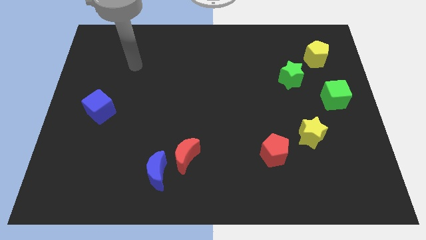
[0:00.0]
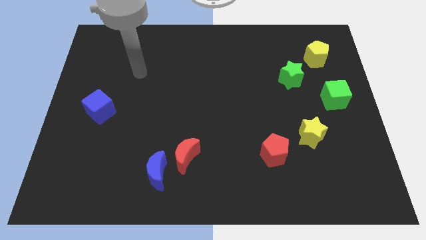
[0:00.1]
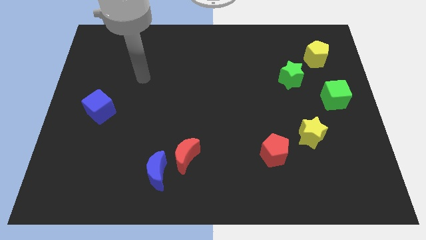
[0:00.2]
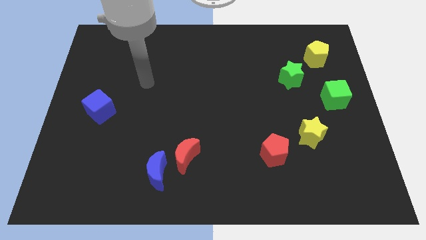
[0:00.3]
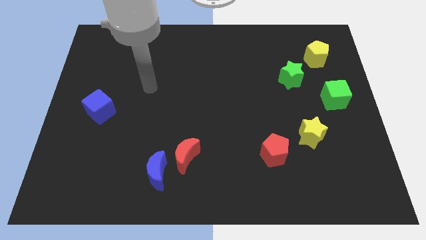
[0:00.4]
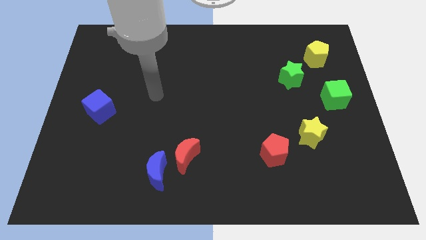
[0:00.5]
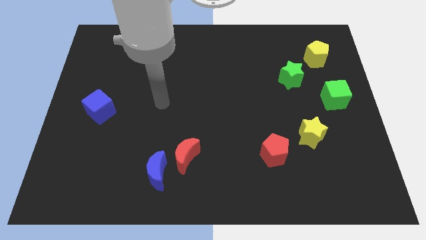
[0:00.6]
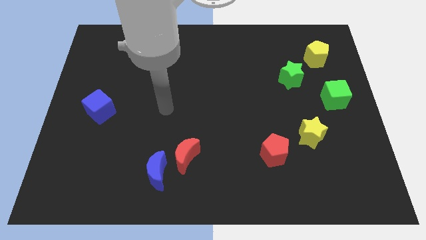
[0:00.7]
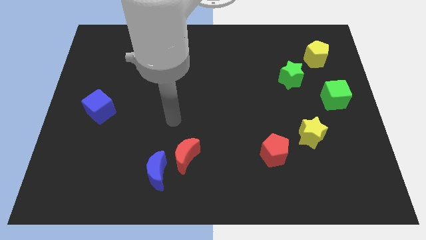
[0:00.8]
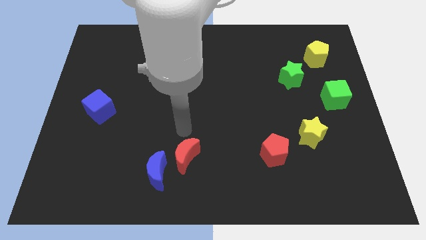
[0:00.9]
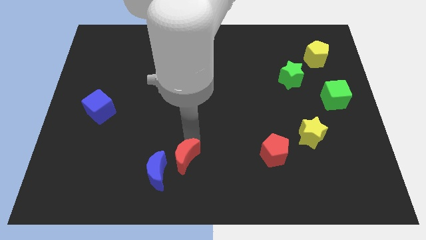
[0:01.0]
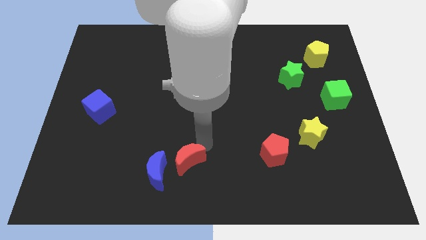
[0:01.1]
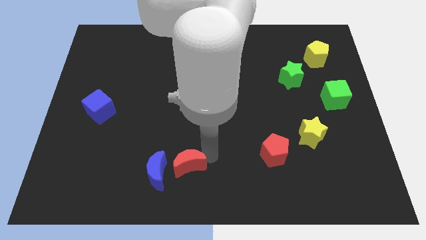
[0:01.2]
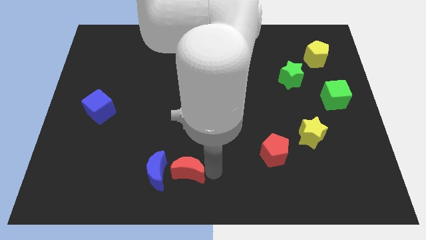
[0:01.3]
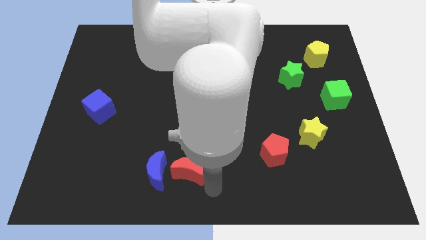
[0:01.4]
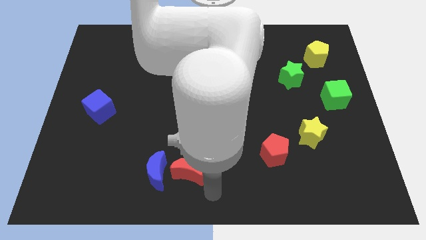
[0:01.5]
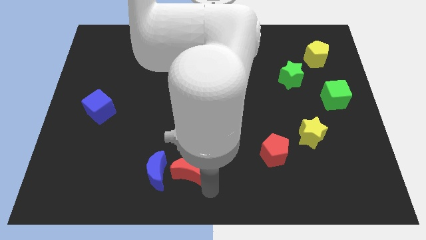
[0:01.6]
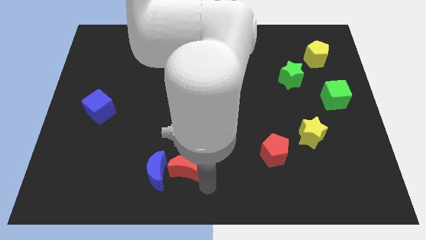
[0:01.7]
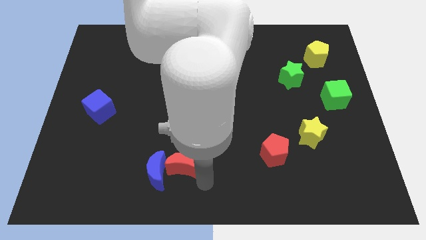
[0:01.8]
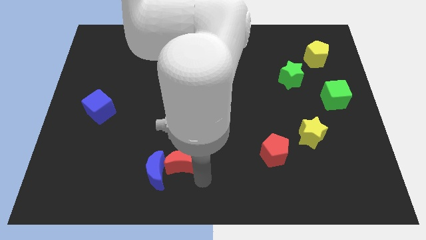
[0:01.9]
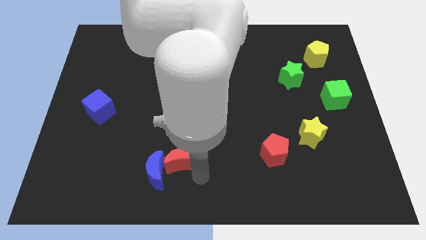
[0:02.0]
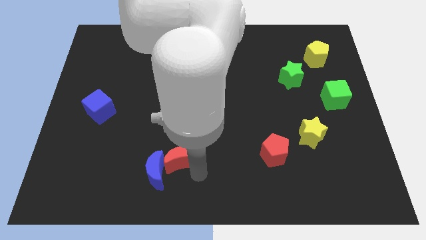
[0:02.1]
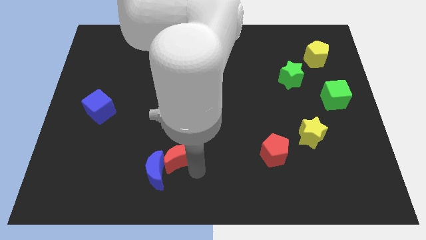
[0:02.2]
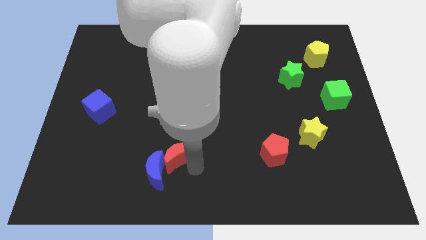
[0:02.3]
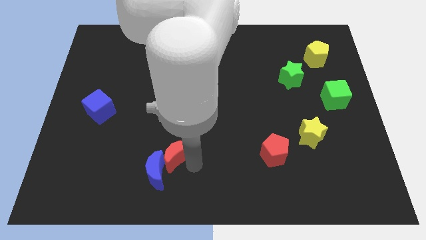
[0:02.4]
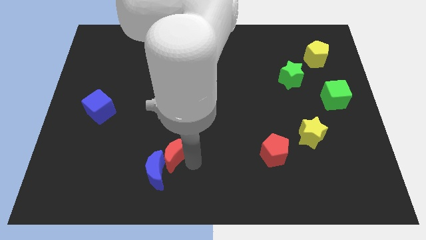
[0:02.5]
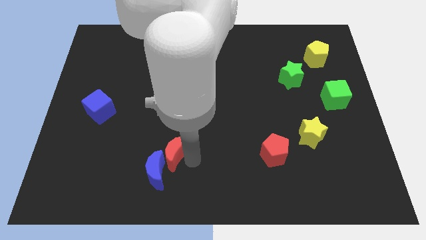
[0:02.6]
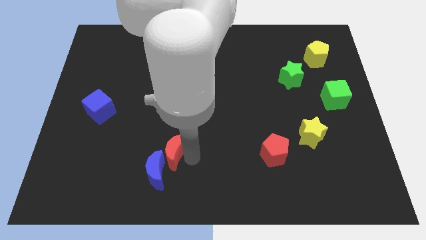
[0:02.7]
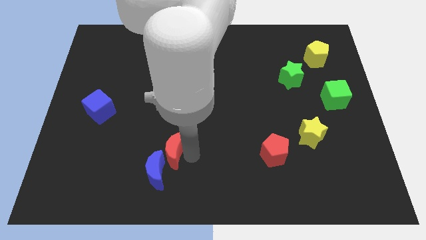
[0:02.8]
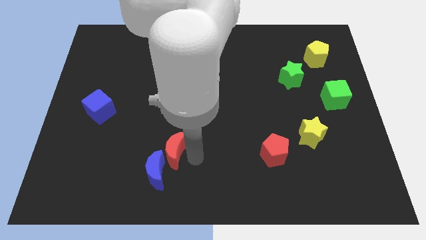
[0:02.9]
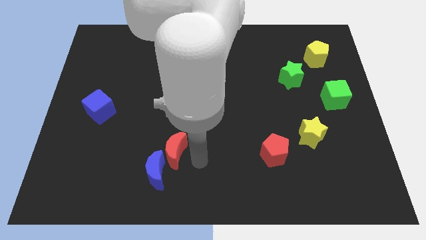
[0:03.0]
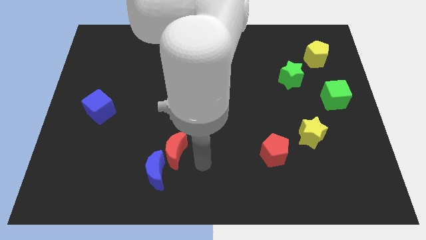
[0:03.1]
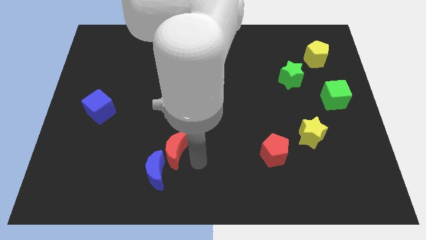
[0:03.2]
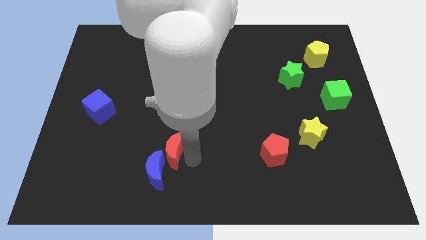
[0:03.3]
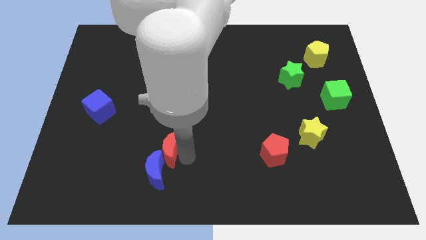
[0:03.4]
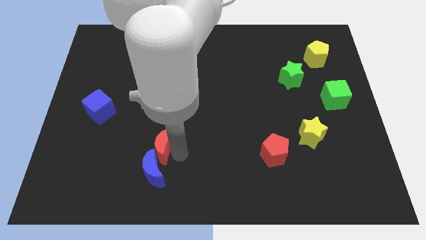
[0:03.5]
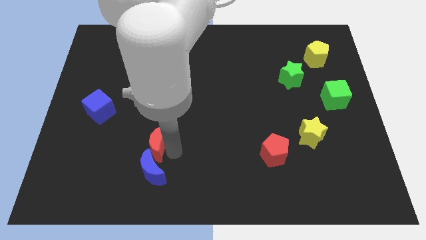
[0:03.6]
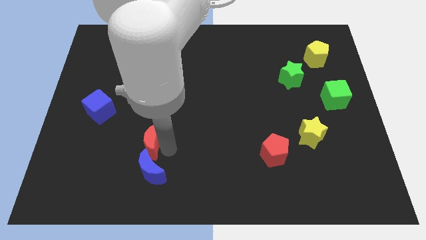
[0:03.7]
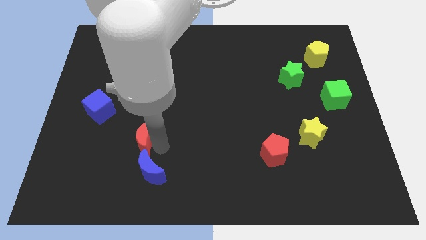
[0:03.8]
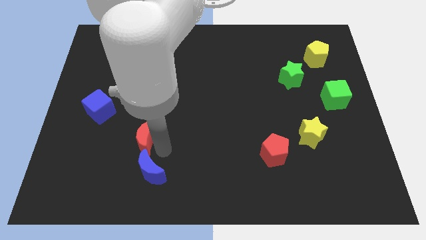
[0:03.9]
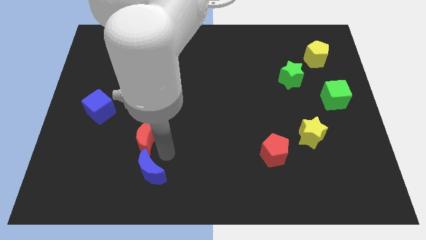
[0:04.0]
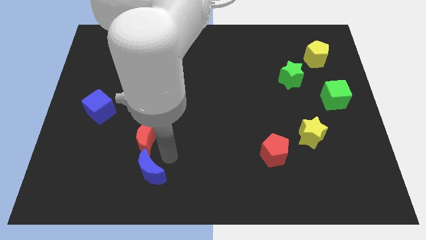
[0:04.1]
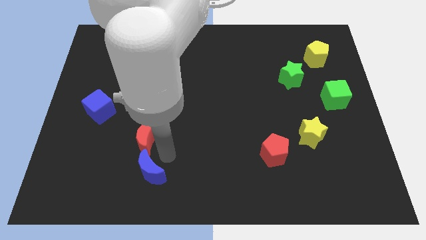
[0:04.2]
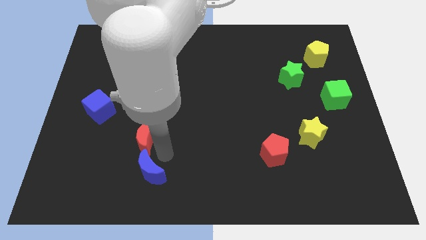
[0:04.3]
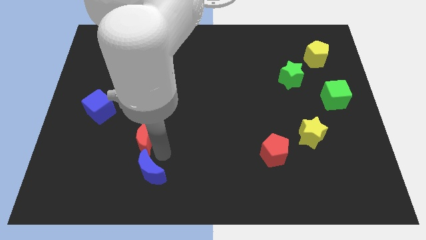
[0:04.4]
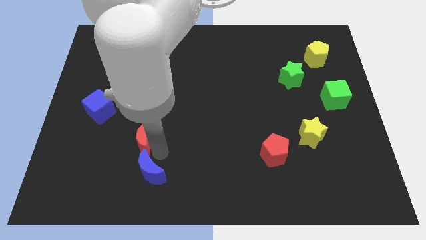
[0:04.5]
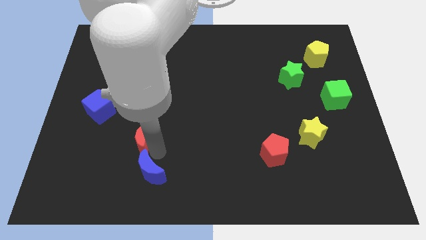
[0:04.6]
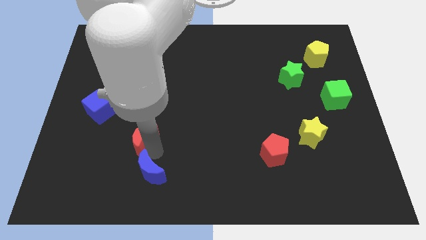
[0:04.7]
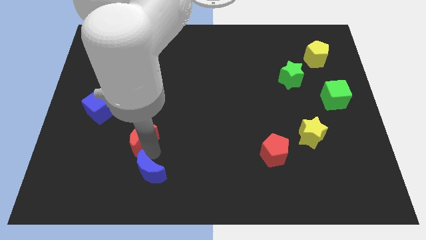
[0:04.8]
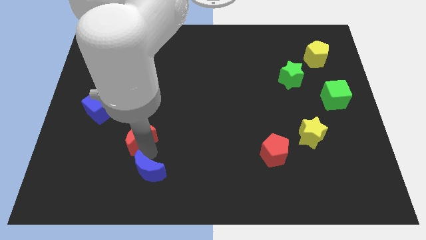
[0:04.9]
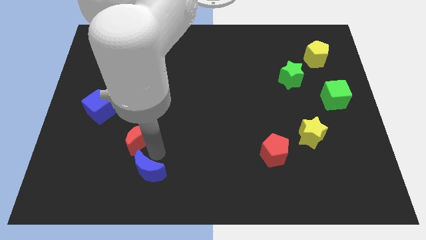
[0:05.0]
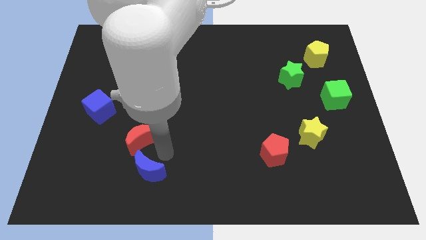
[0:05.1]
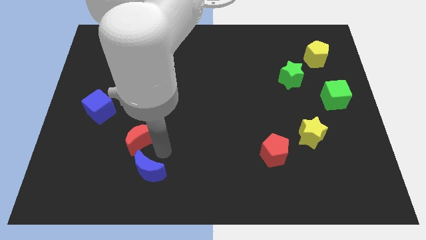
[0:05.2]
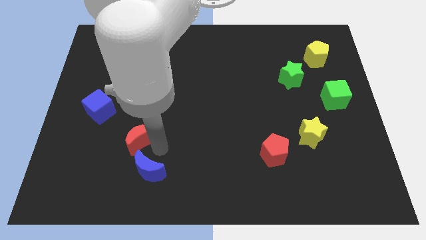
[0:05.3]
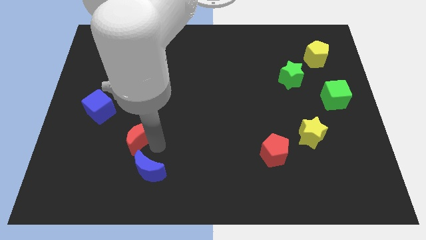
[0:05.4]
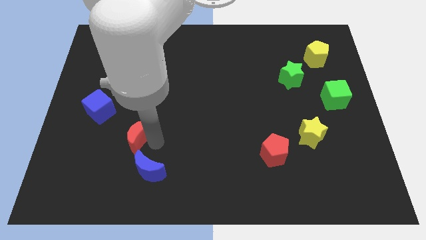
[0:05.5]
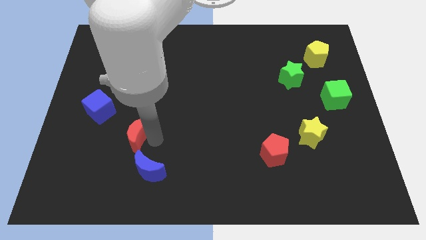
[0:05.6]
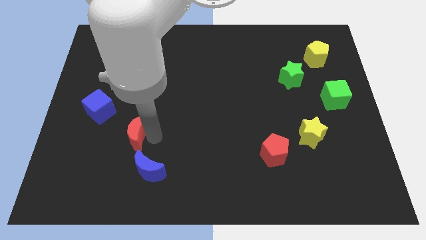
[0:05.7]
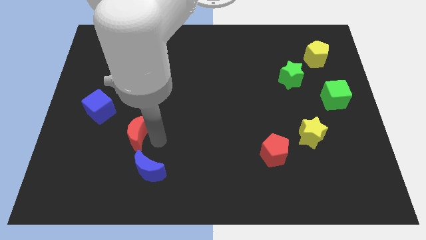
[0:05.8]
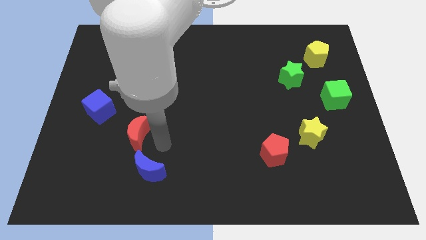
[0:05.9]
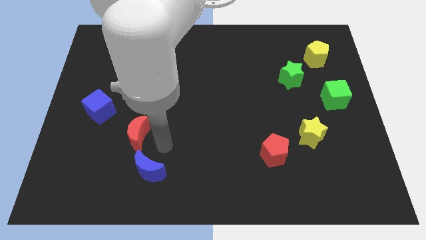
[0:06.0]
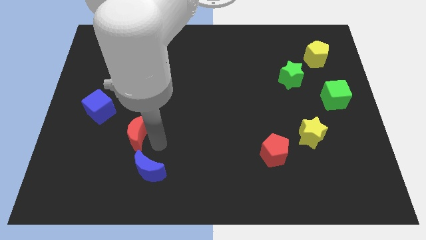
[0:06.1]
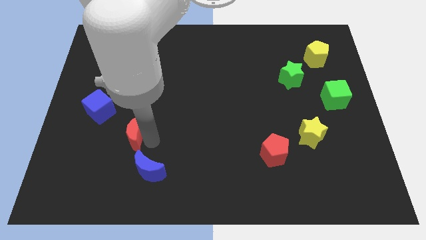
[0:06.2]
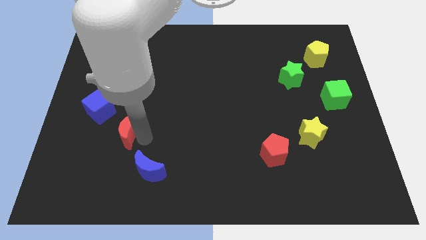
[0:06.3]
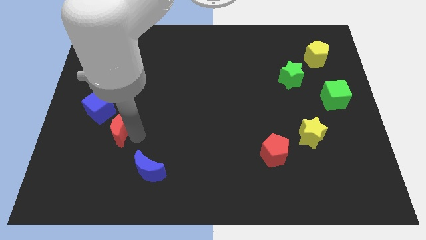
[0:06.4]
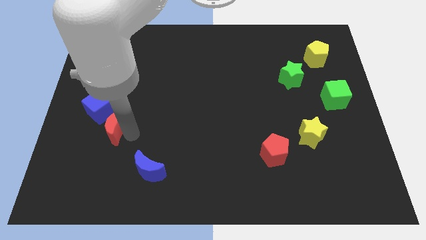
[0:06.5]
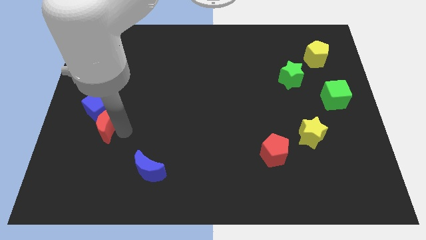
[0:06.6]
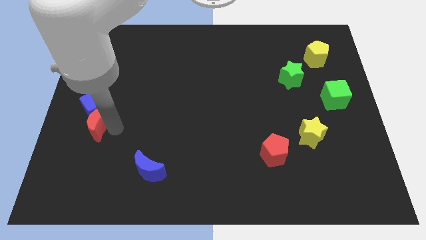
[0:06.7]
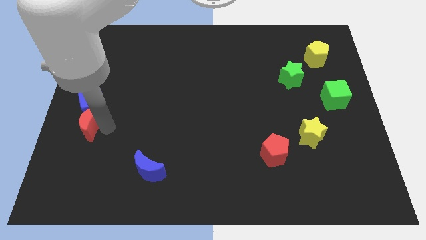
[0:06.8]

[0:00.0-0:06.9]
put the red moon to the left side of the board
